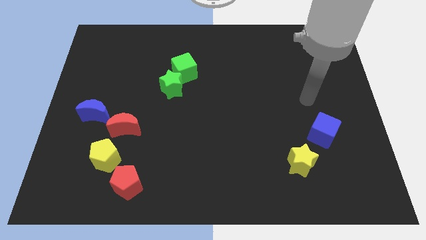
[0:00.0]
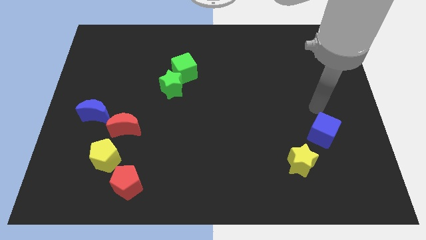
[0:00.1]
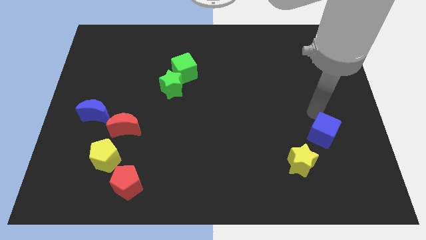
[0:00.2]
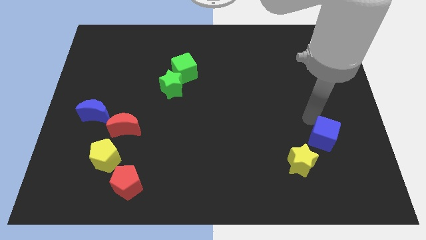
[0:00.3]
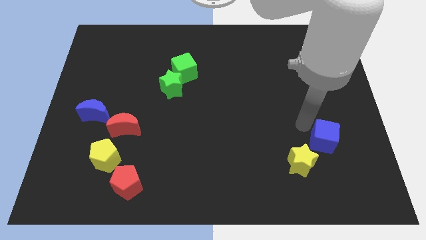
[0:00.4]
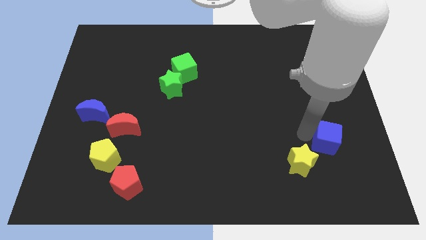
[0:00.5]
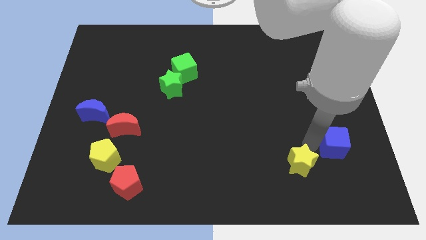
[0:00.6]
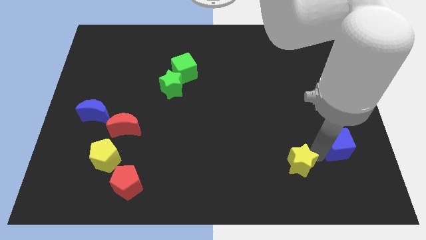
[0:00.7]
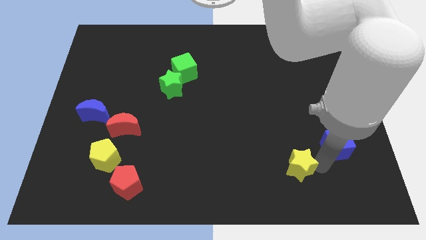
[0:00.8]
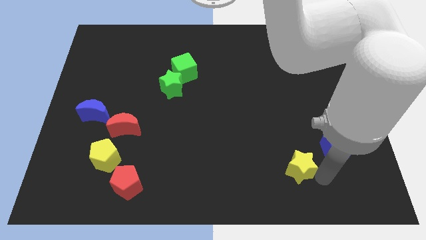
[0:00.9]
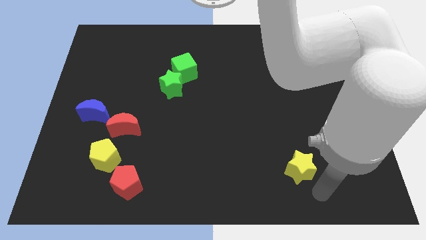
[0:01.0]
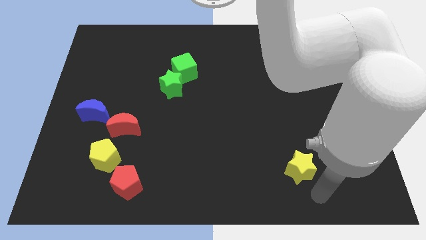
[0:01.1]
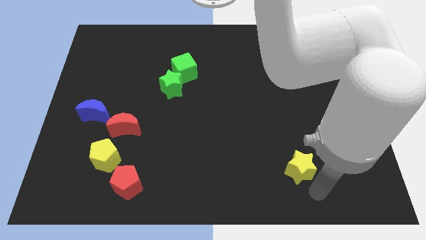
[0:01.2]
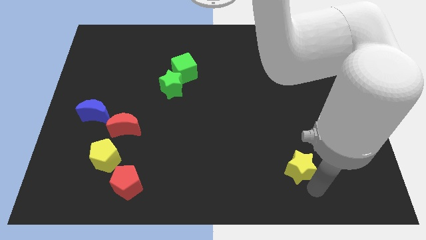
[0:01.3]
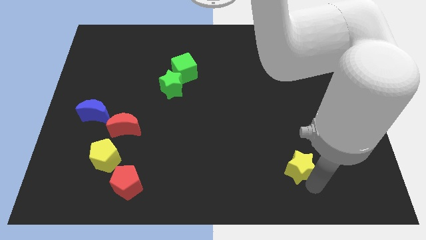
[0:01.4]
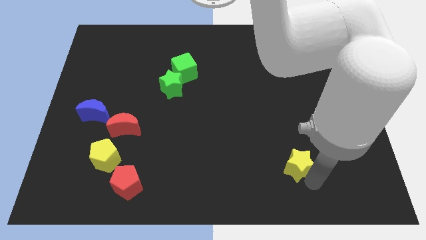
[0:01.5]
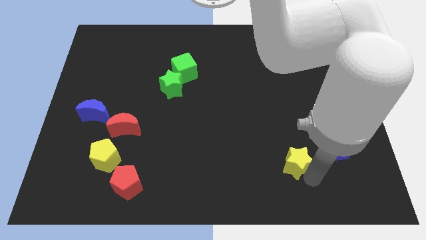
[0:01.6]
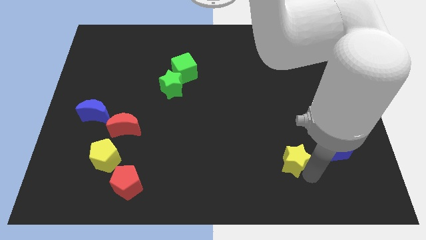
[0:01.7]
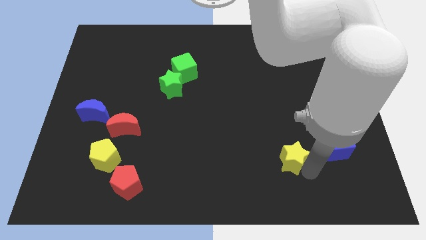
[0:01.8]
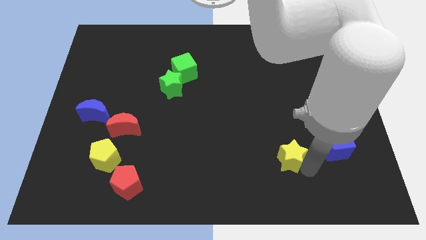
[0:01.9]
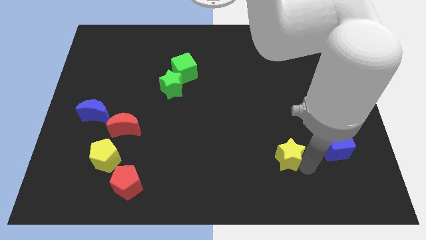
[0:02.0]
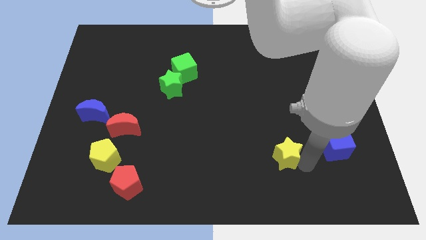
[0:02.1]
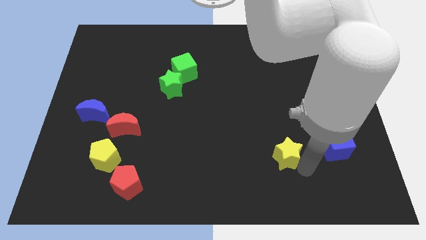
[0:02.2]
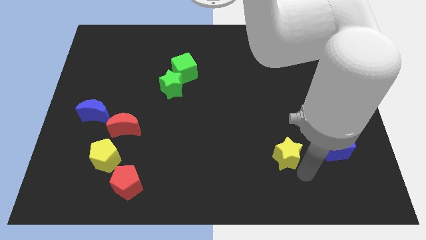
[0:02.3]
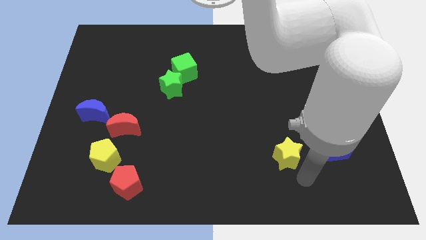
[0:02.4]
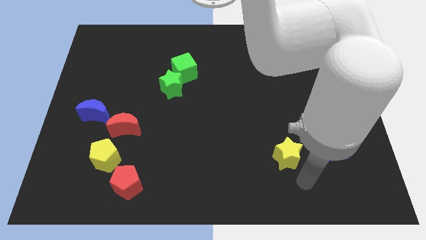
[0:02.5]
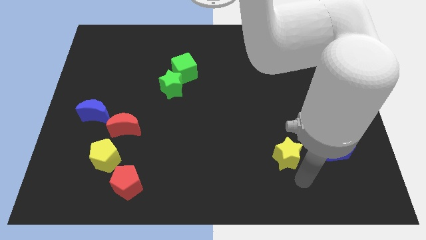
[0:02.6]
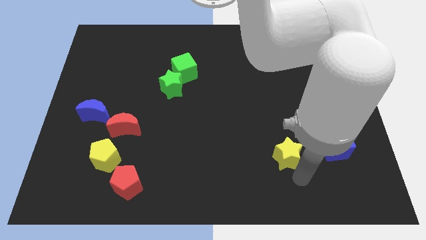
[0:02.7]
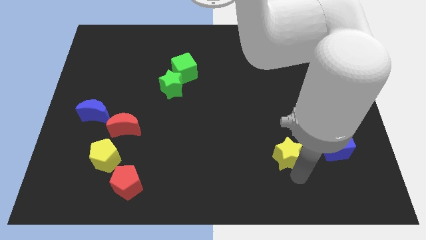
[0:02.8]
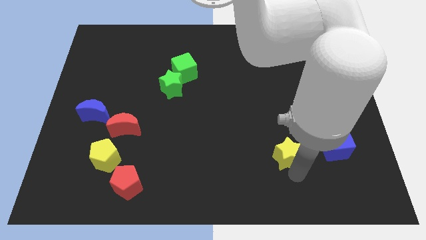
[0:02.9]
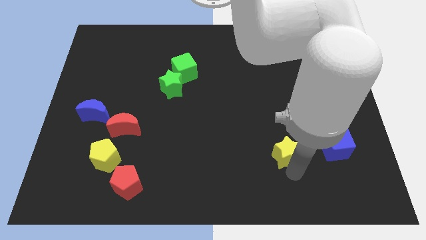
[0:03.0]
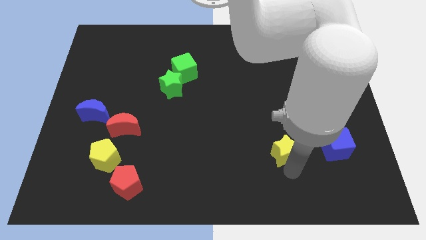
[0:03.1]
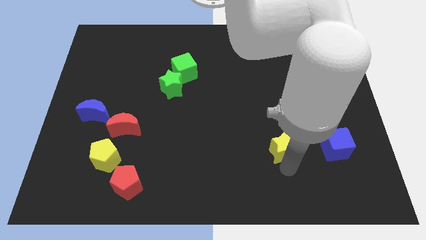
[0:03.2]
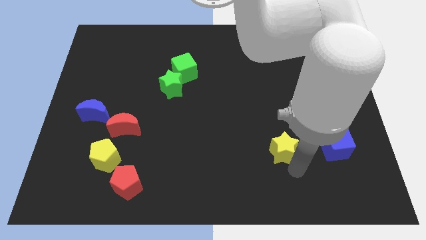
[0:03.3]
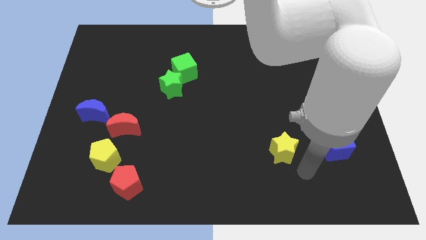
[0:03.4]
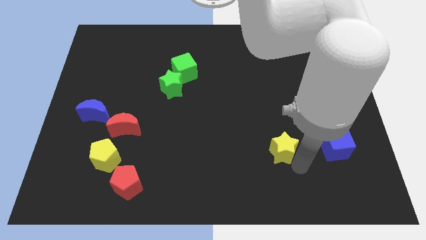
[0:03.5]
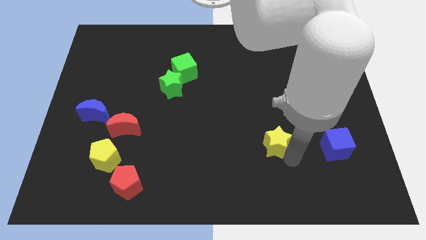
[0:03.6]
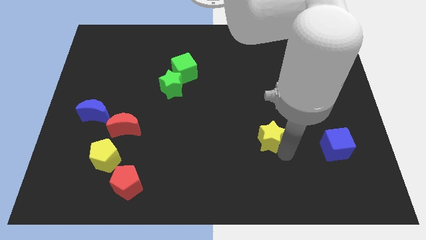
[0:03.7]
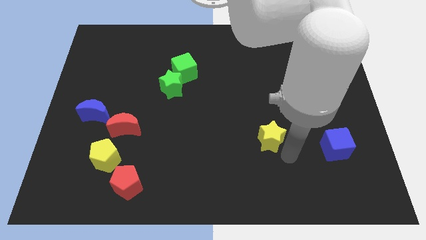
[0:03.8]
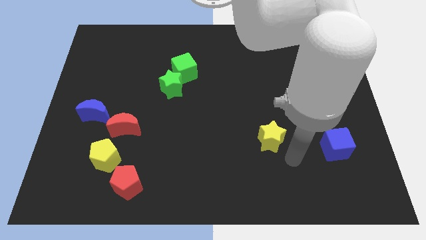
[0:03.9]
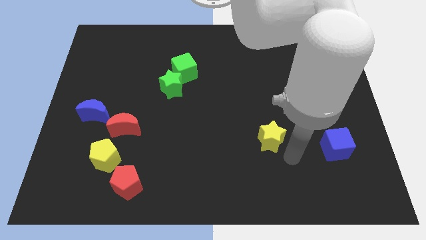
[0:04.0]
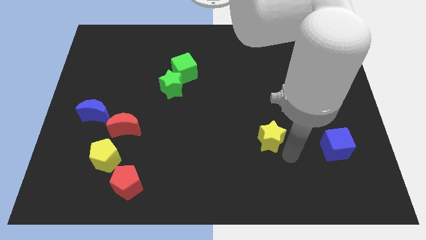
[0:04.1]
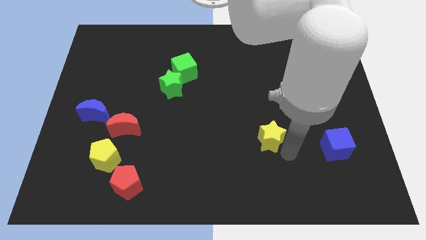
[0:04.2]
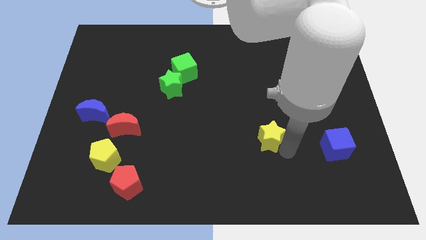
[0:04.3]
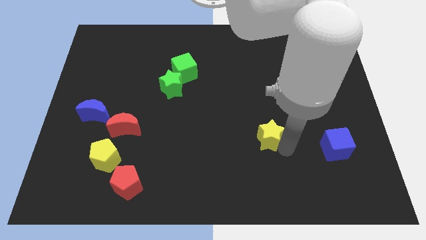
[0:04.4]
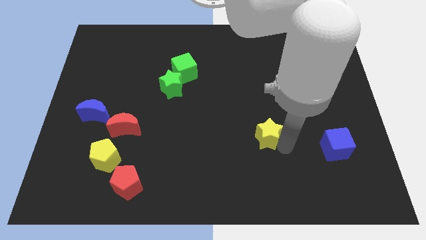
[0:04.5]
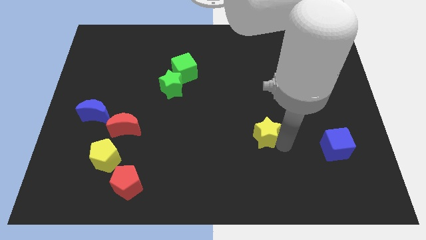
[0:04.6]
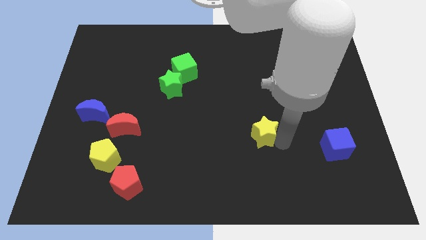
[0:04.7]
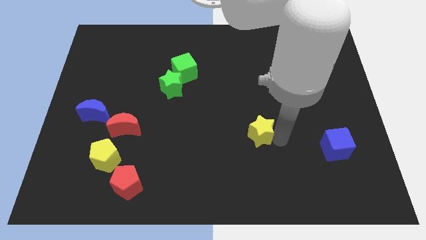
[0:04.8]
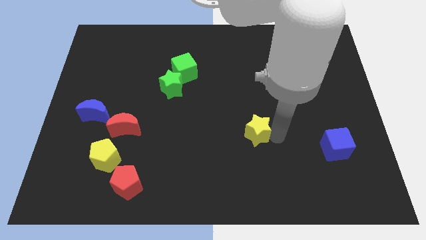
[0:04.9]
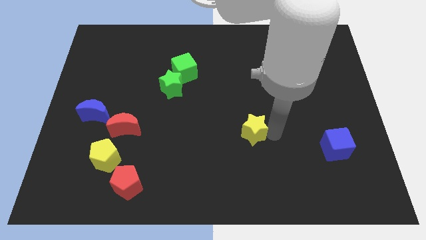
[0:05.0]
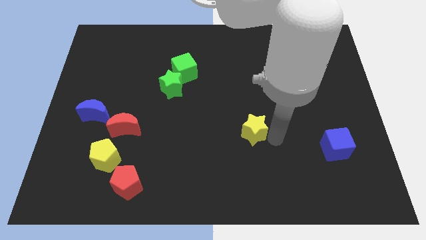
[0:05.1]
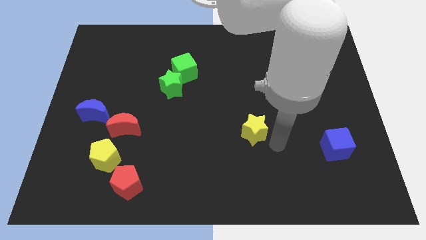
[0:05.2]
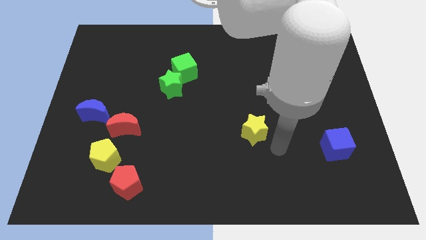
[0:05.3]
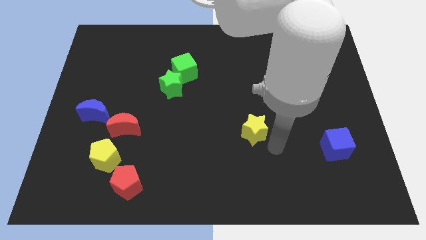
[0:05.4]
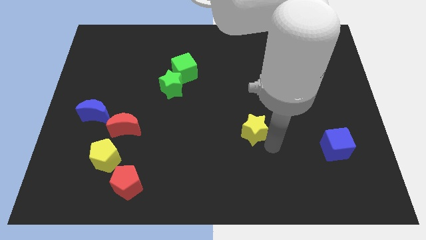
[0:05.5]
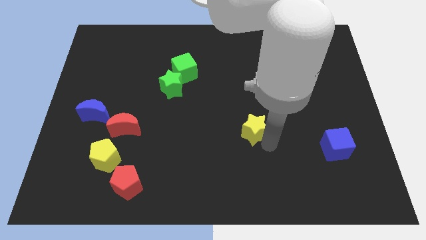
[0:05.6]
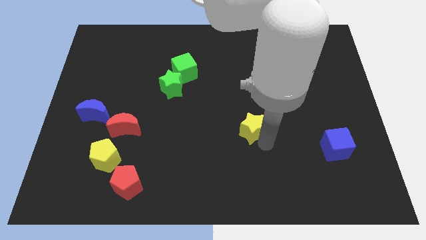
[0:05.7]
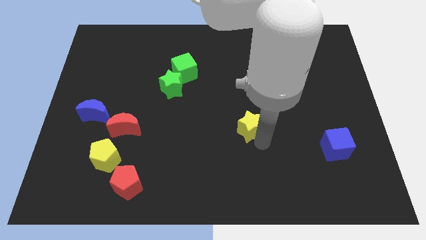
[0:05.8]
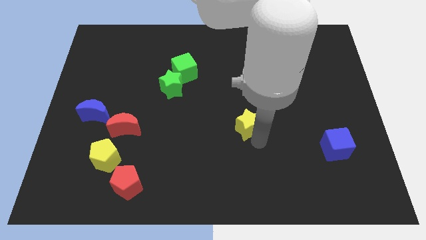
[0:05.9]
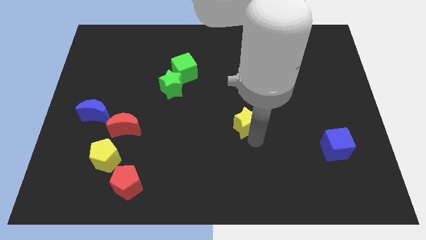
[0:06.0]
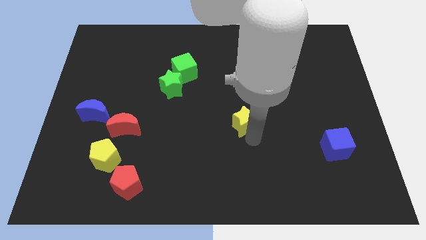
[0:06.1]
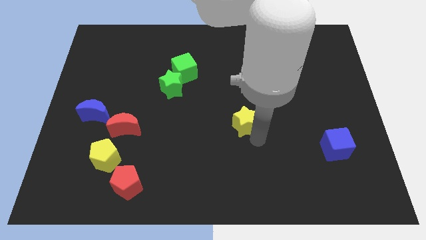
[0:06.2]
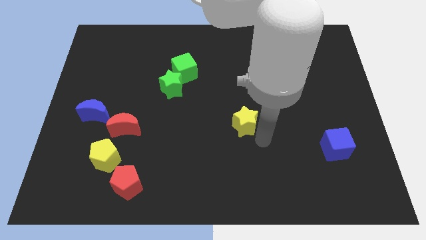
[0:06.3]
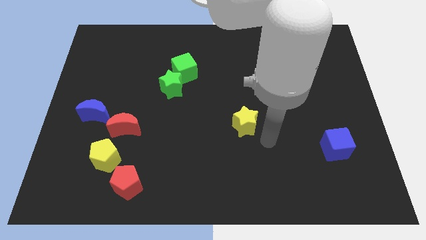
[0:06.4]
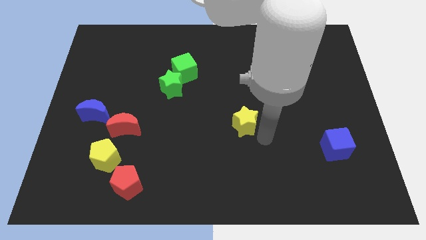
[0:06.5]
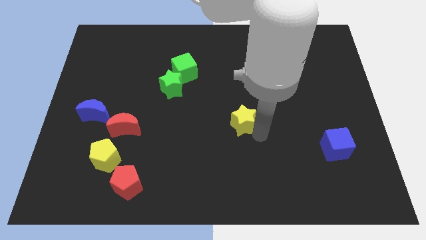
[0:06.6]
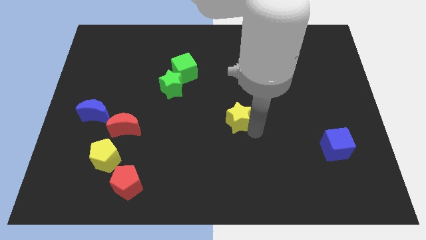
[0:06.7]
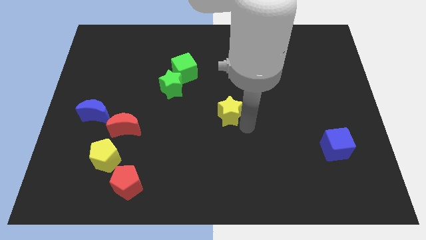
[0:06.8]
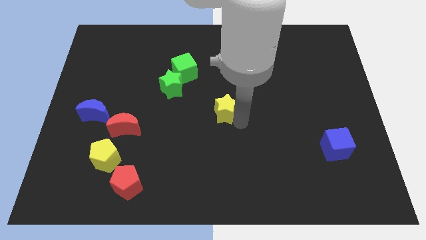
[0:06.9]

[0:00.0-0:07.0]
push the yellow star diagonally upwards and left

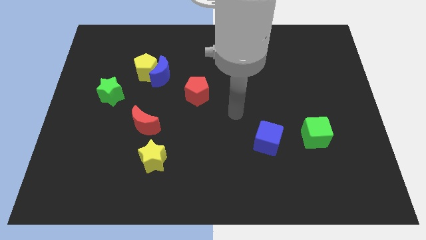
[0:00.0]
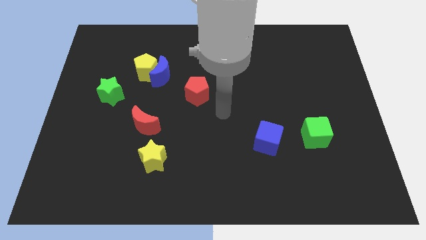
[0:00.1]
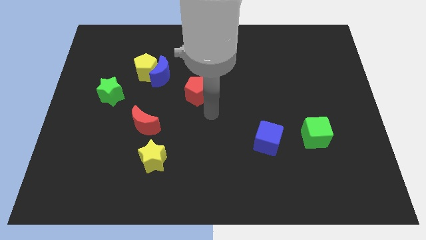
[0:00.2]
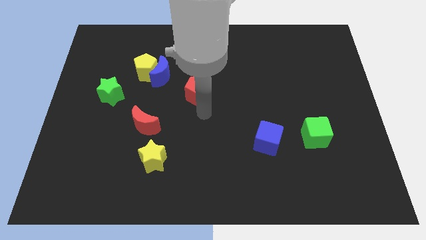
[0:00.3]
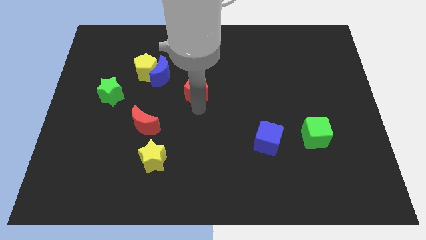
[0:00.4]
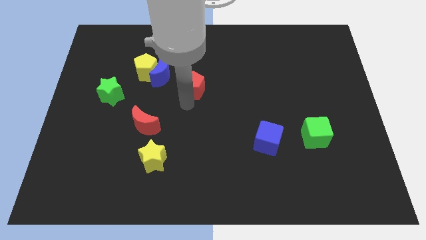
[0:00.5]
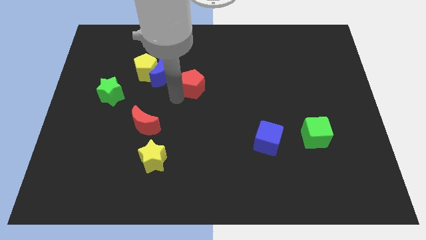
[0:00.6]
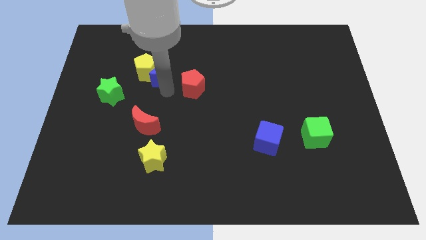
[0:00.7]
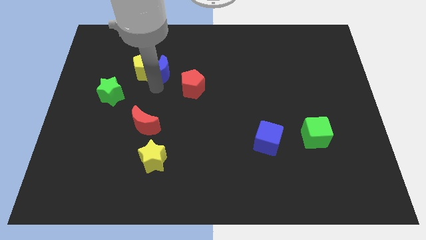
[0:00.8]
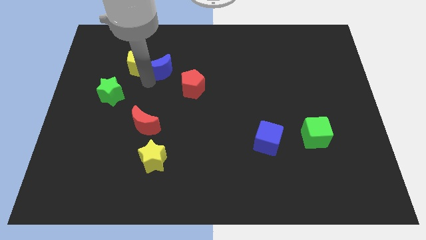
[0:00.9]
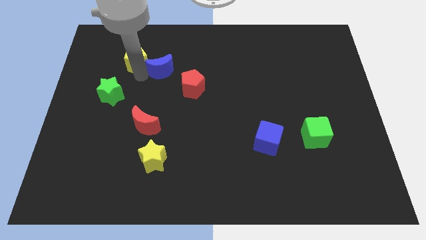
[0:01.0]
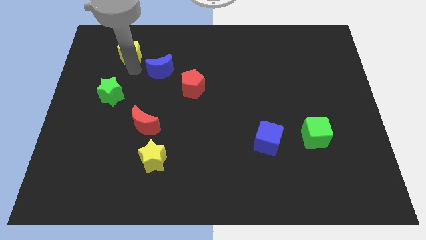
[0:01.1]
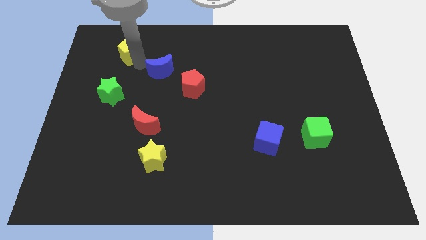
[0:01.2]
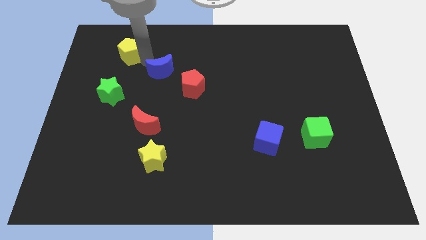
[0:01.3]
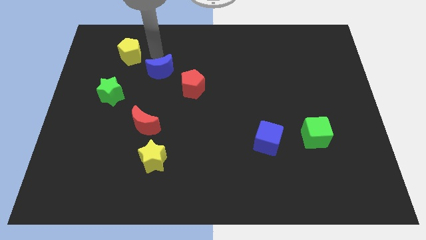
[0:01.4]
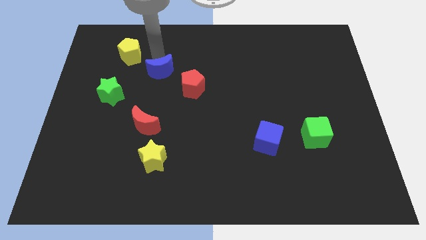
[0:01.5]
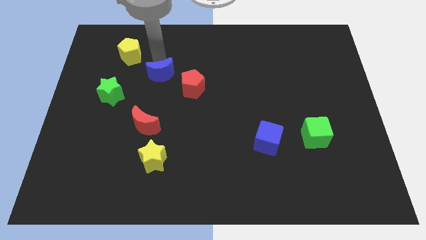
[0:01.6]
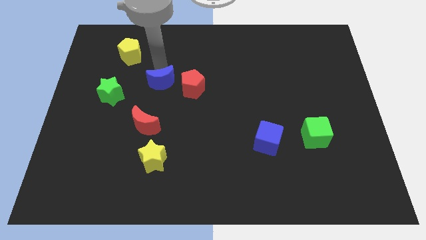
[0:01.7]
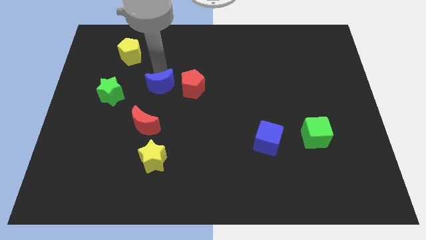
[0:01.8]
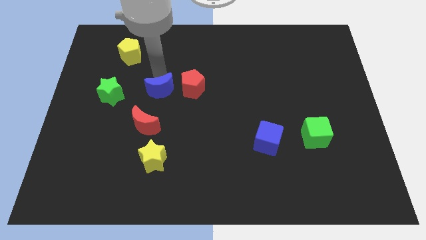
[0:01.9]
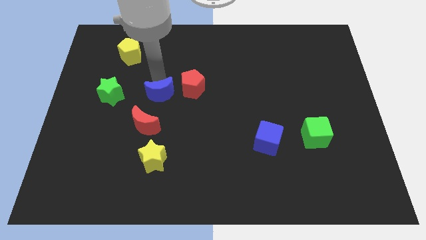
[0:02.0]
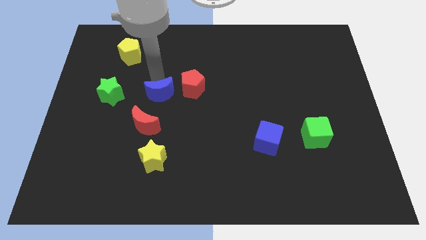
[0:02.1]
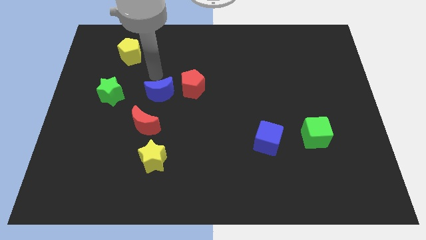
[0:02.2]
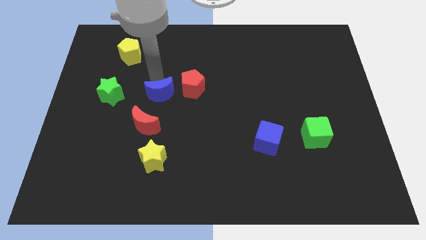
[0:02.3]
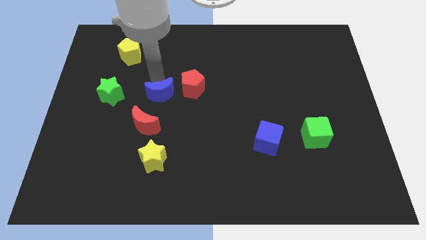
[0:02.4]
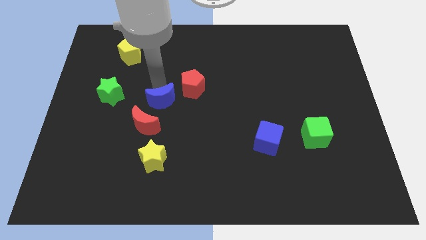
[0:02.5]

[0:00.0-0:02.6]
slide the blue moon downwards slightly
